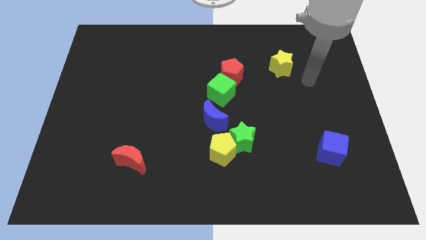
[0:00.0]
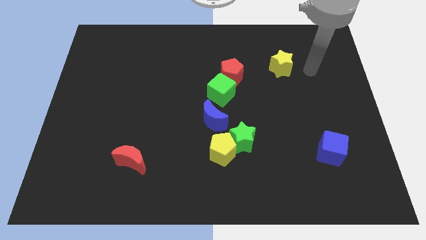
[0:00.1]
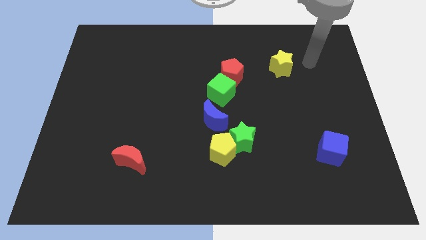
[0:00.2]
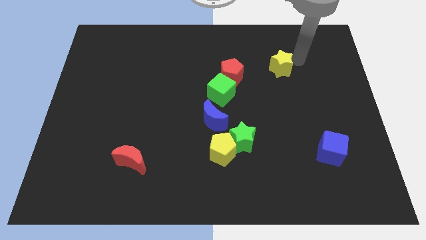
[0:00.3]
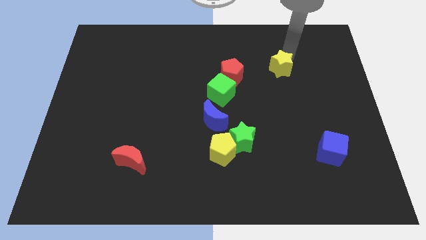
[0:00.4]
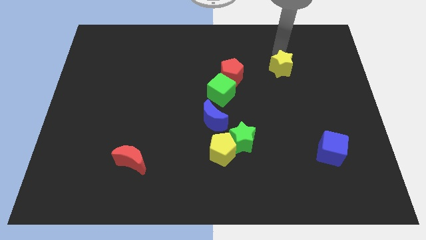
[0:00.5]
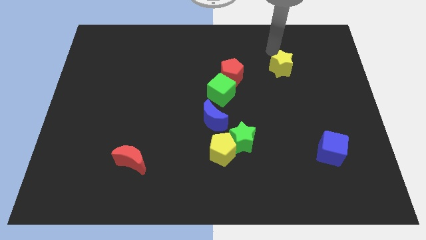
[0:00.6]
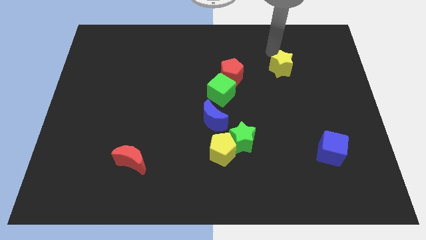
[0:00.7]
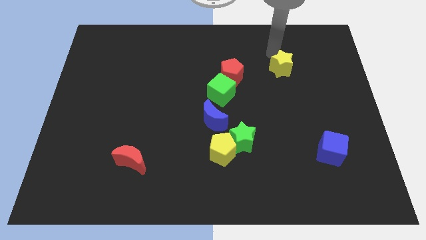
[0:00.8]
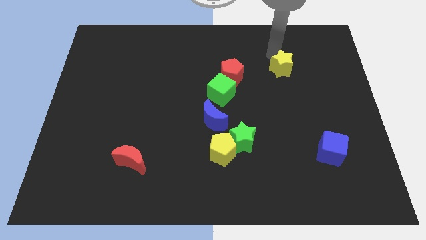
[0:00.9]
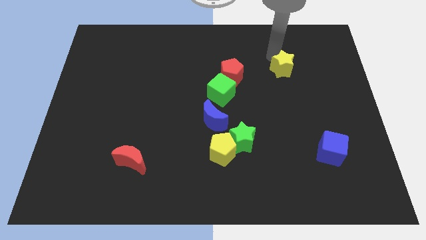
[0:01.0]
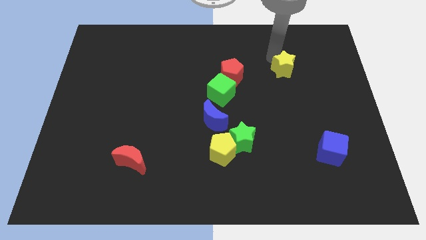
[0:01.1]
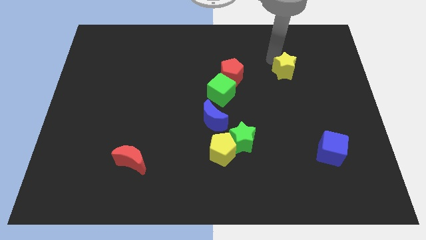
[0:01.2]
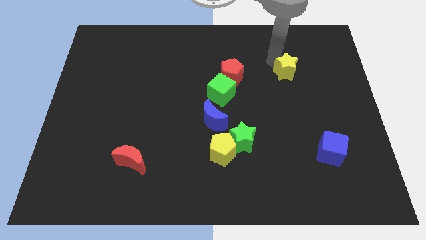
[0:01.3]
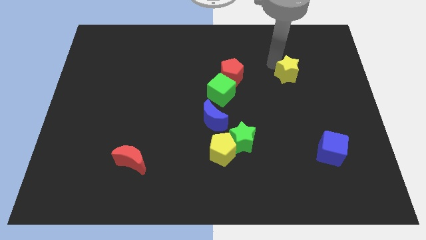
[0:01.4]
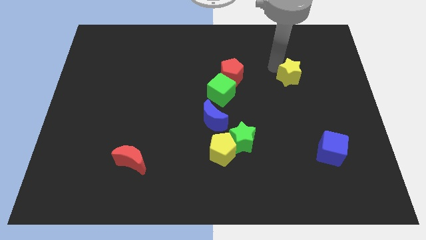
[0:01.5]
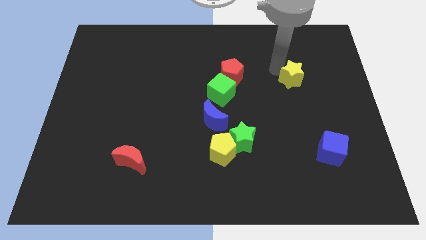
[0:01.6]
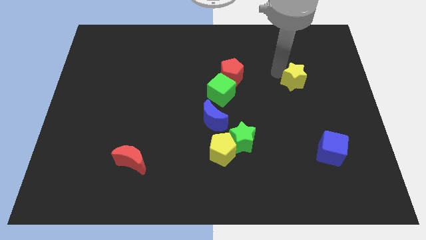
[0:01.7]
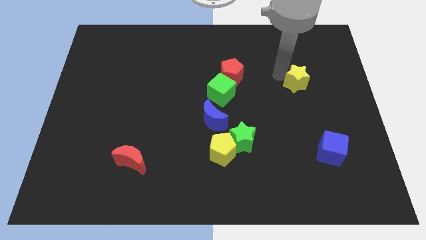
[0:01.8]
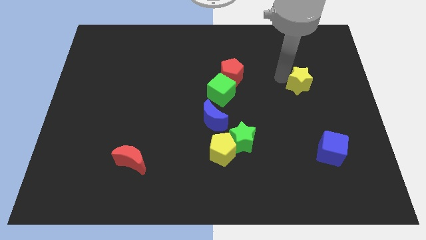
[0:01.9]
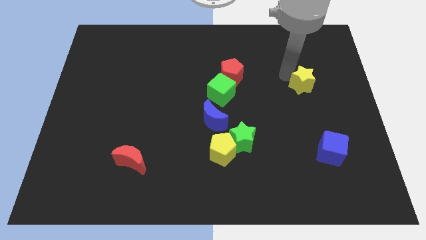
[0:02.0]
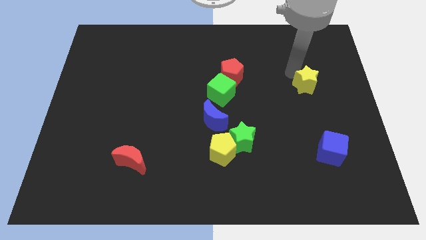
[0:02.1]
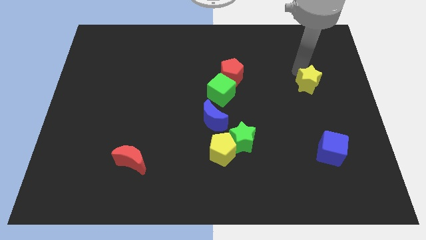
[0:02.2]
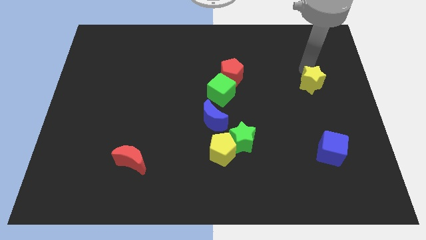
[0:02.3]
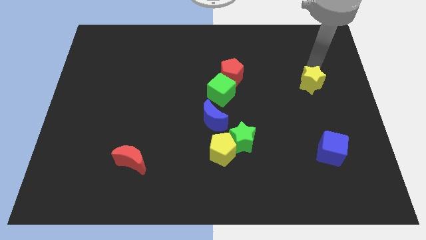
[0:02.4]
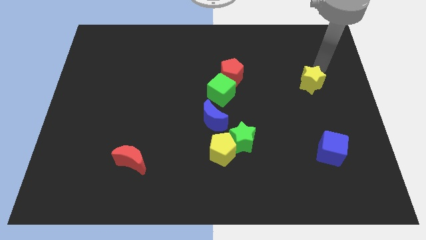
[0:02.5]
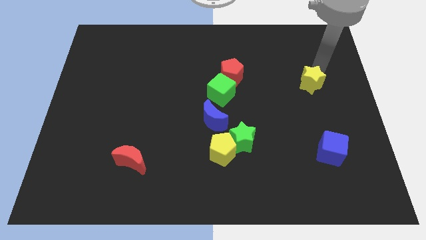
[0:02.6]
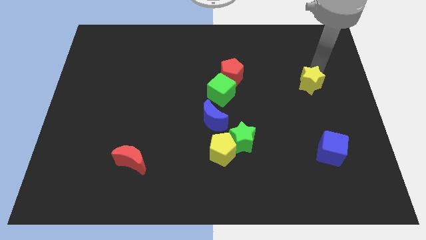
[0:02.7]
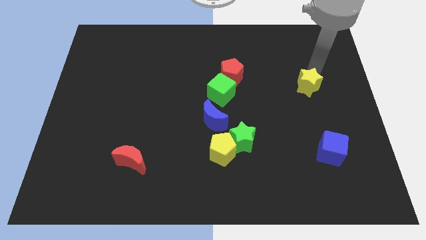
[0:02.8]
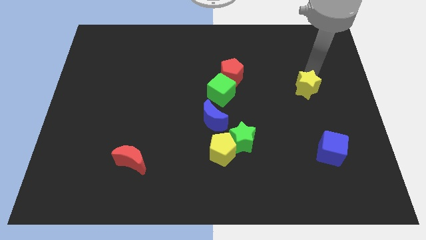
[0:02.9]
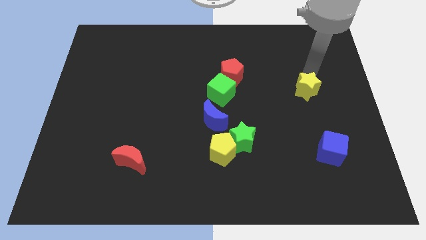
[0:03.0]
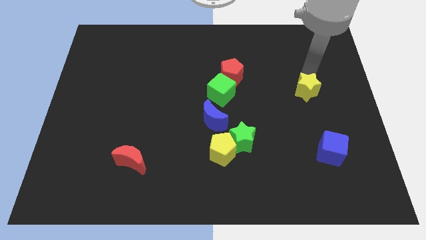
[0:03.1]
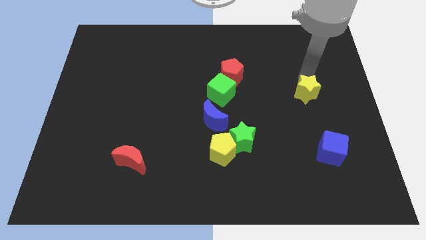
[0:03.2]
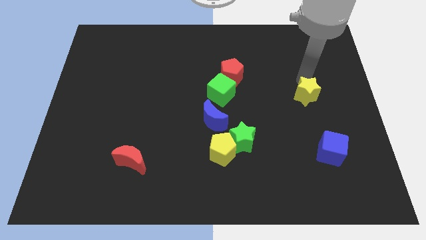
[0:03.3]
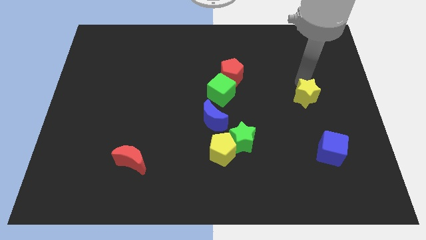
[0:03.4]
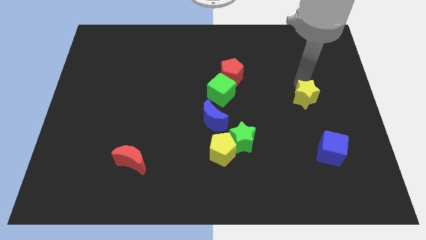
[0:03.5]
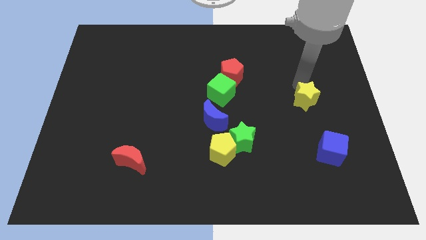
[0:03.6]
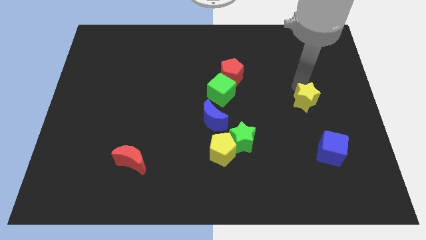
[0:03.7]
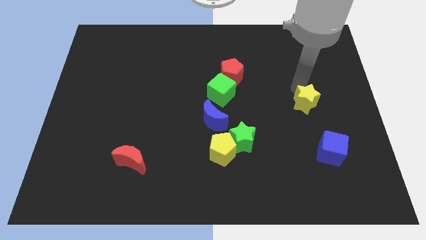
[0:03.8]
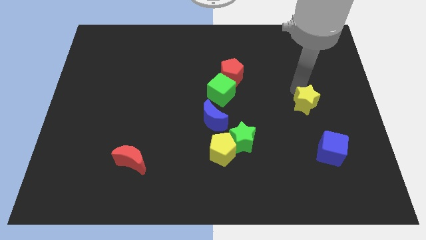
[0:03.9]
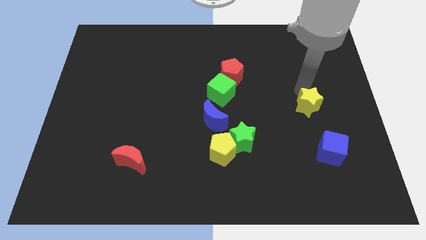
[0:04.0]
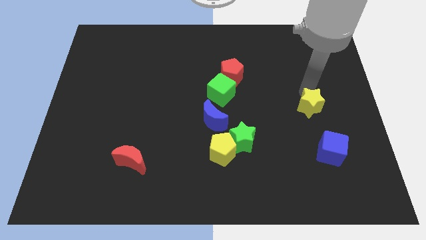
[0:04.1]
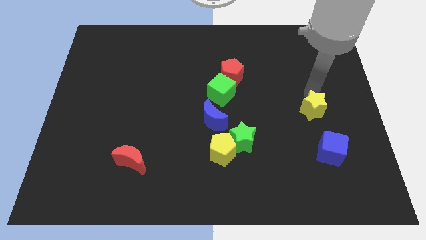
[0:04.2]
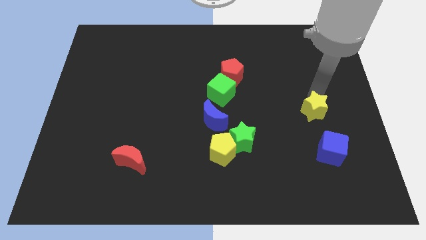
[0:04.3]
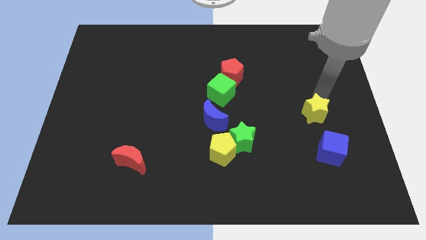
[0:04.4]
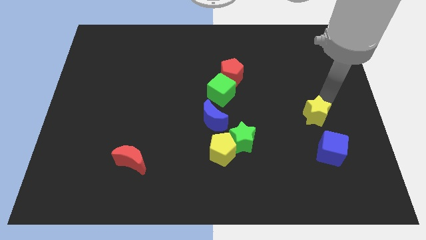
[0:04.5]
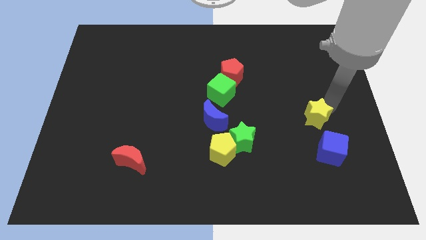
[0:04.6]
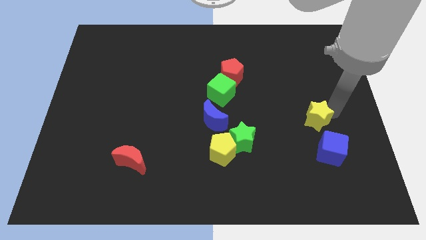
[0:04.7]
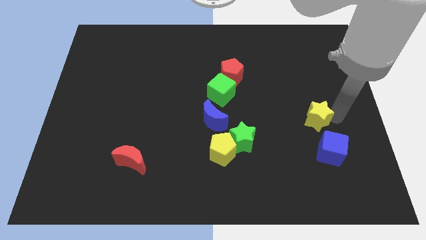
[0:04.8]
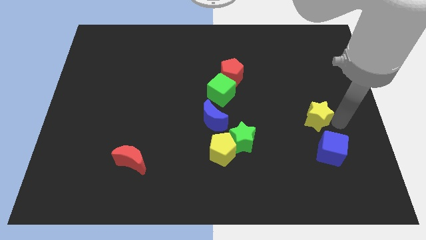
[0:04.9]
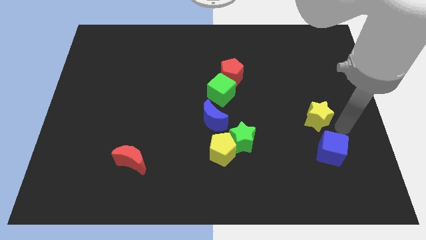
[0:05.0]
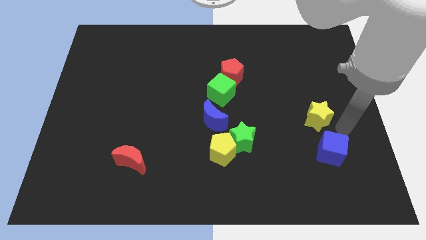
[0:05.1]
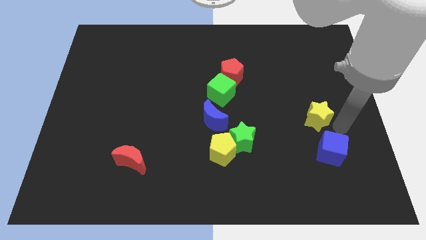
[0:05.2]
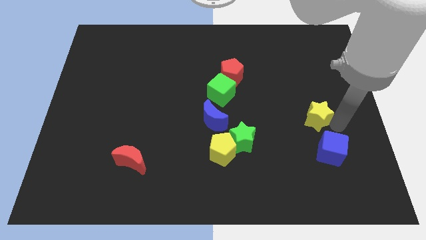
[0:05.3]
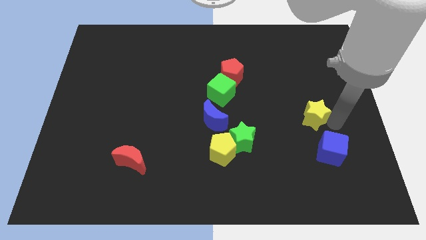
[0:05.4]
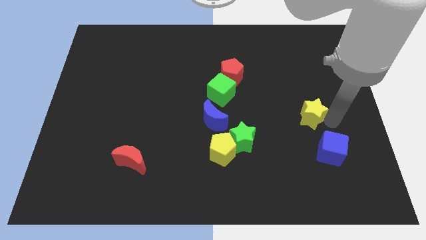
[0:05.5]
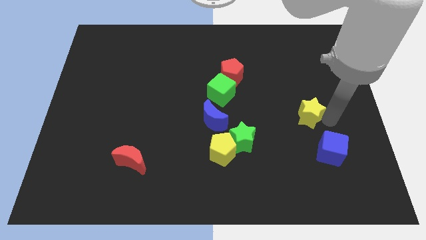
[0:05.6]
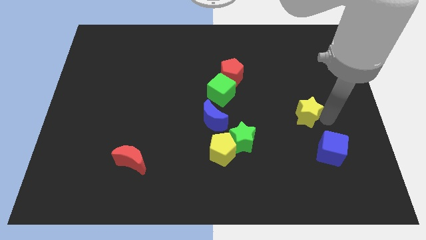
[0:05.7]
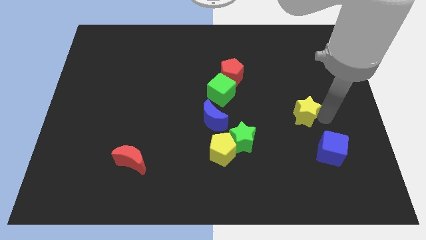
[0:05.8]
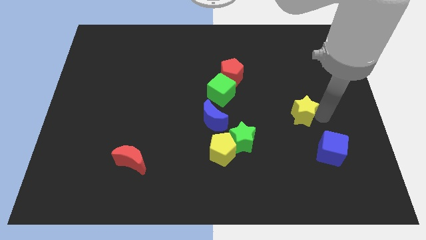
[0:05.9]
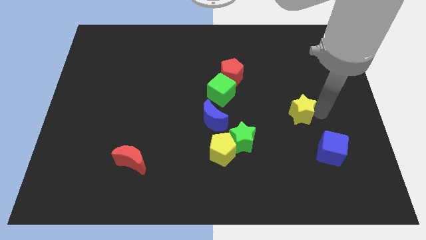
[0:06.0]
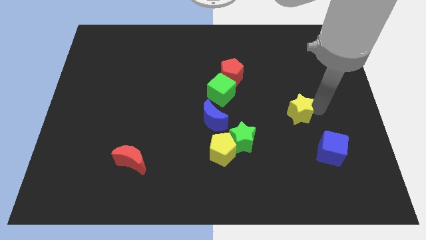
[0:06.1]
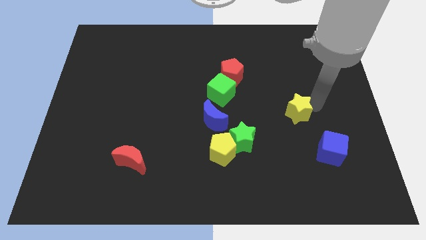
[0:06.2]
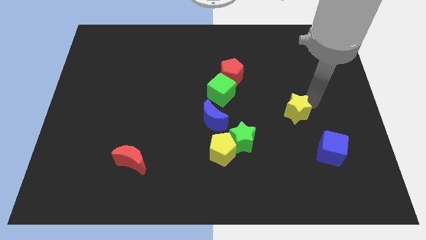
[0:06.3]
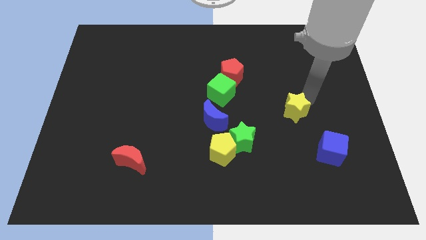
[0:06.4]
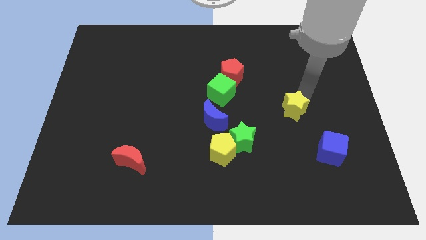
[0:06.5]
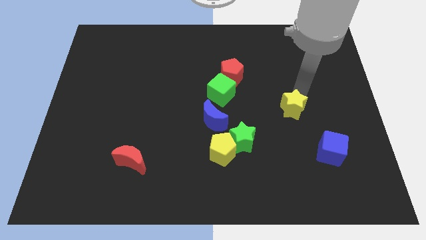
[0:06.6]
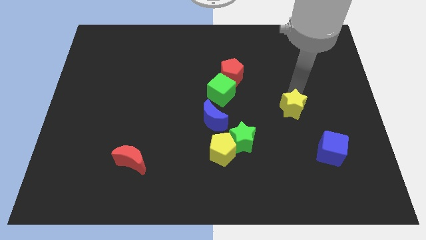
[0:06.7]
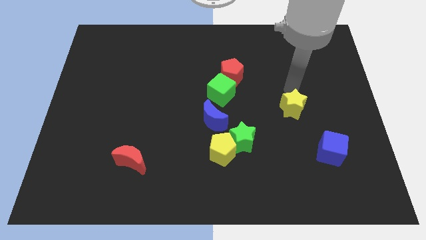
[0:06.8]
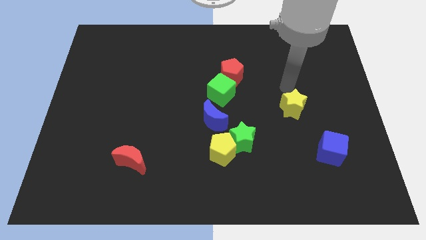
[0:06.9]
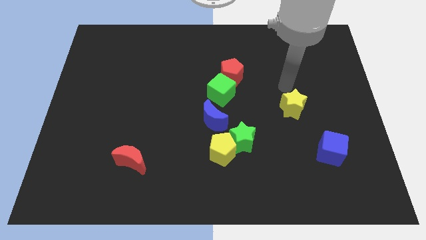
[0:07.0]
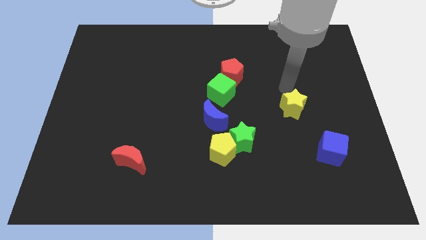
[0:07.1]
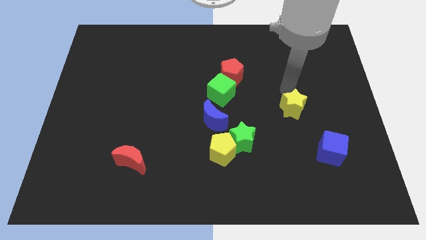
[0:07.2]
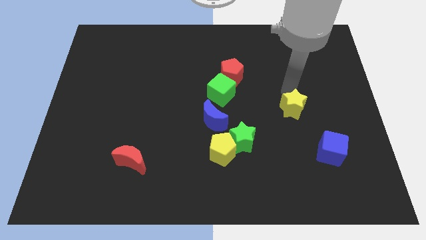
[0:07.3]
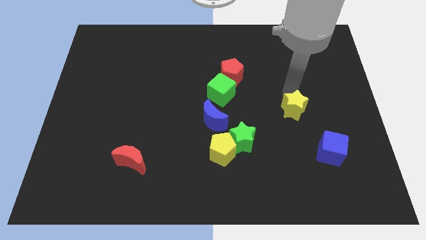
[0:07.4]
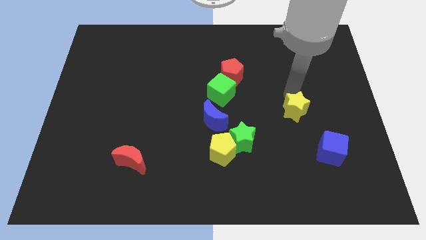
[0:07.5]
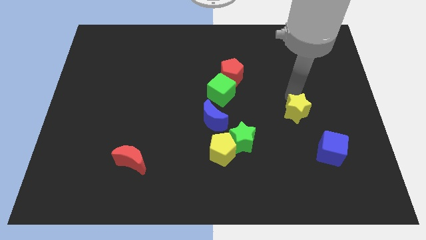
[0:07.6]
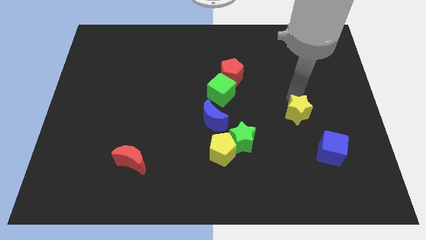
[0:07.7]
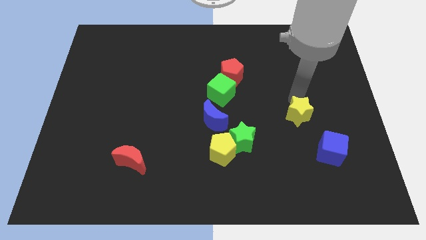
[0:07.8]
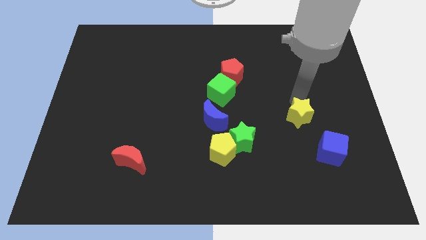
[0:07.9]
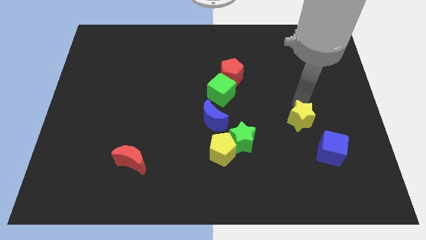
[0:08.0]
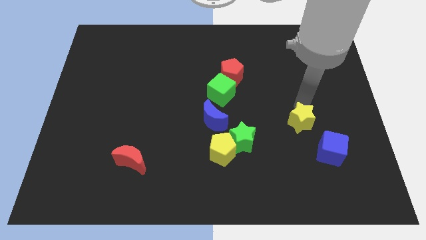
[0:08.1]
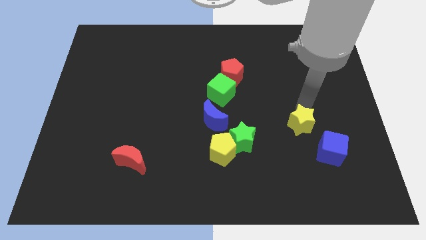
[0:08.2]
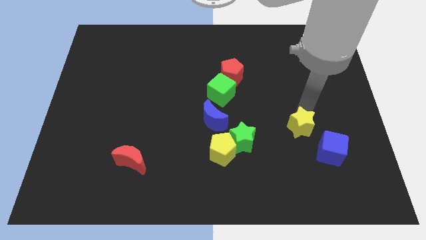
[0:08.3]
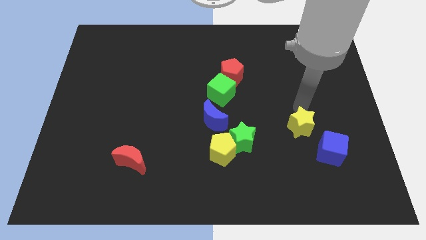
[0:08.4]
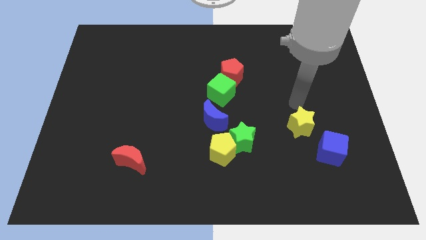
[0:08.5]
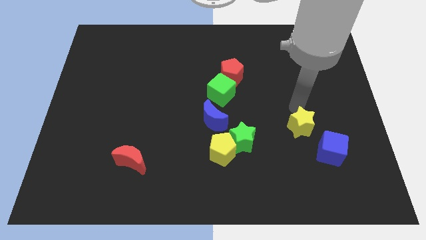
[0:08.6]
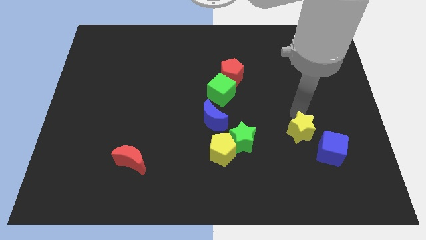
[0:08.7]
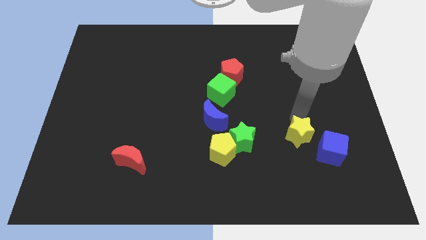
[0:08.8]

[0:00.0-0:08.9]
slide the yellow star down
